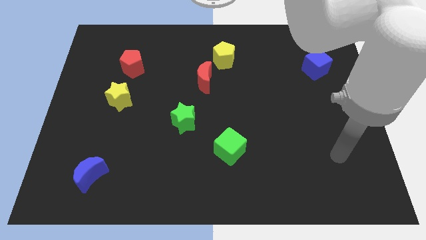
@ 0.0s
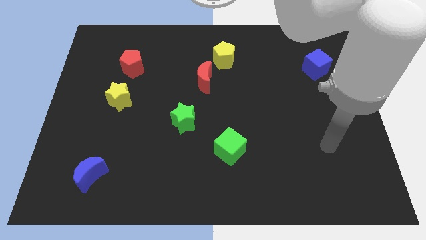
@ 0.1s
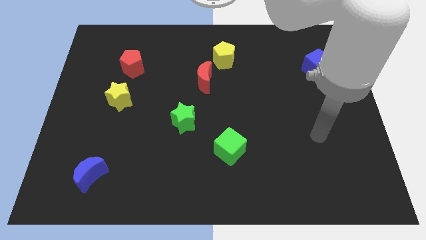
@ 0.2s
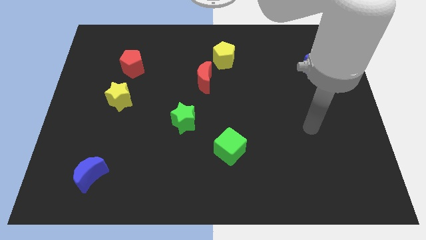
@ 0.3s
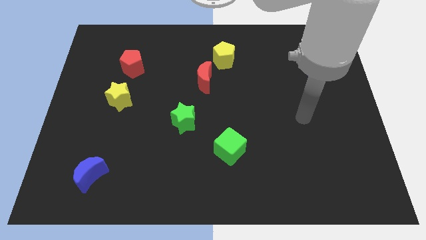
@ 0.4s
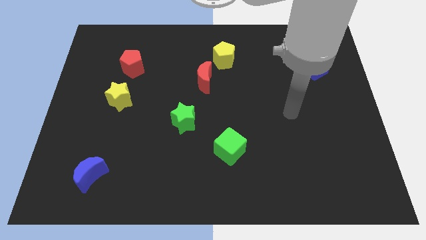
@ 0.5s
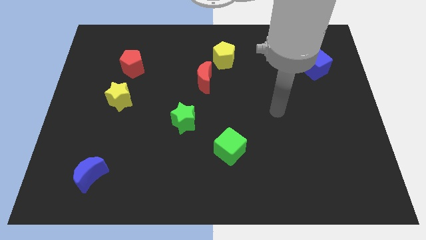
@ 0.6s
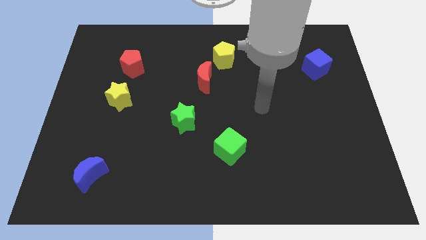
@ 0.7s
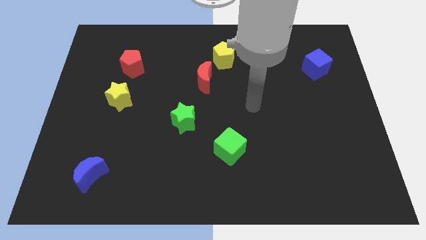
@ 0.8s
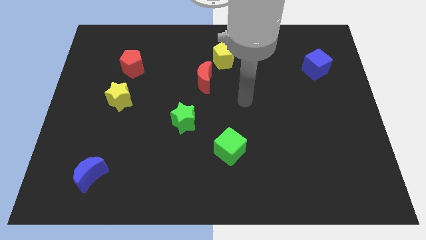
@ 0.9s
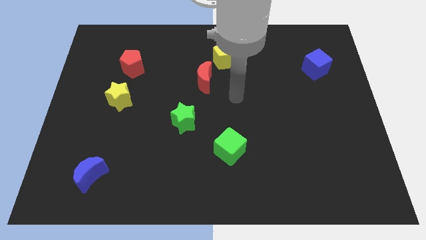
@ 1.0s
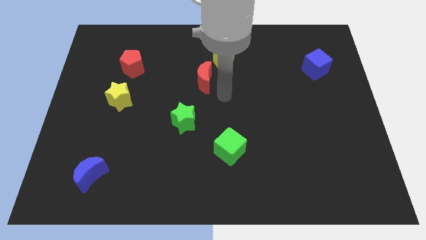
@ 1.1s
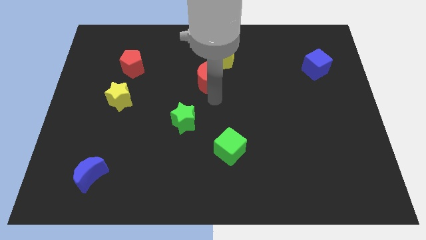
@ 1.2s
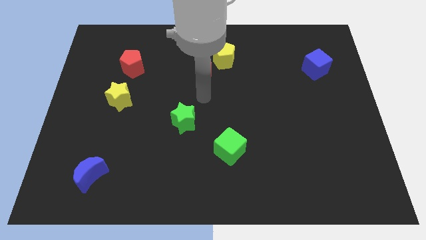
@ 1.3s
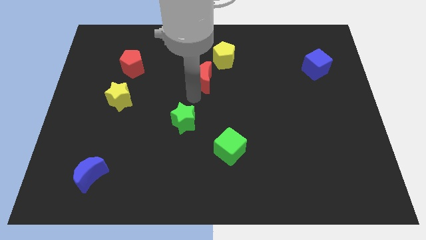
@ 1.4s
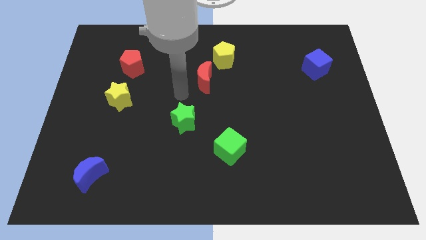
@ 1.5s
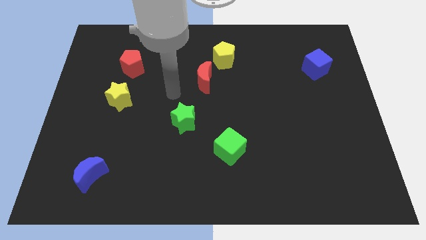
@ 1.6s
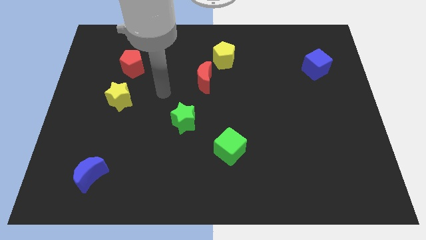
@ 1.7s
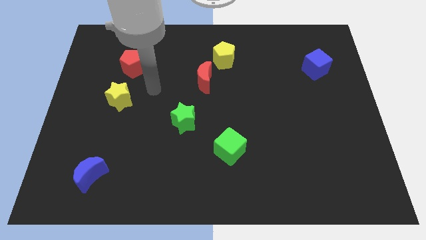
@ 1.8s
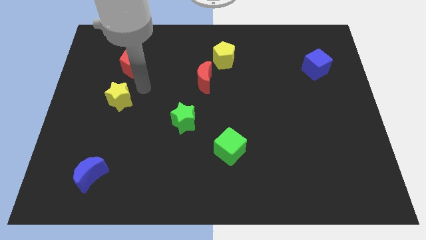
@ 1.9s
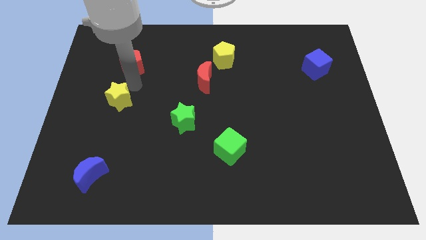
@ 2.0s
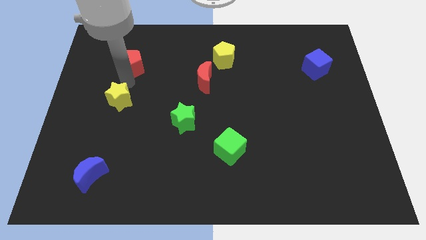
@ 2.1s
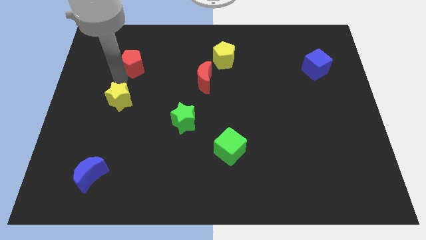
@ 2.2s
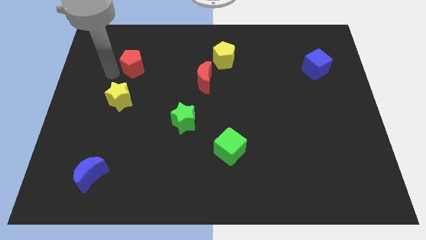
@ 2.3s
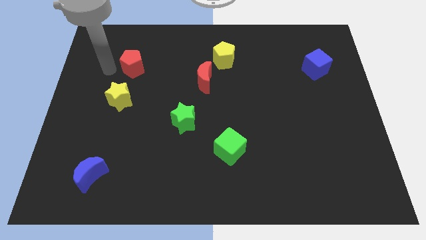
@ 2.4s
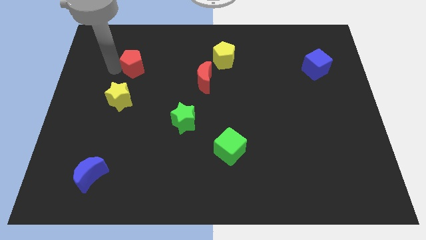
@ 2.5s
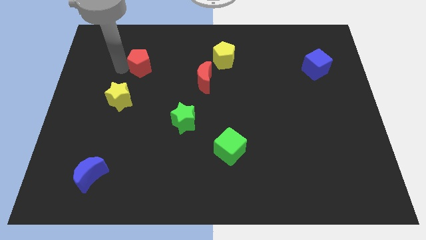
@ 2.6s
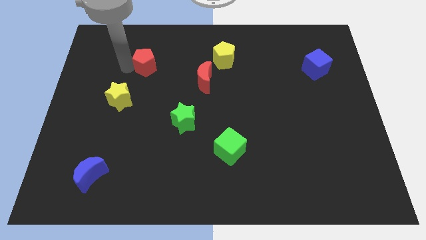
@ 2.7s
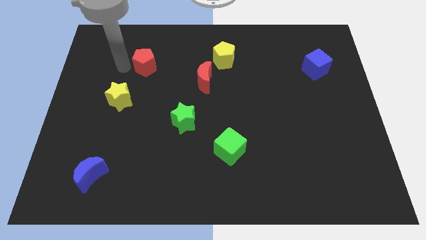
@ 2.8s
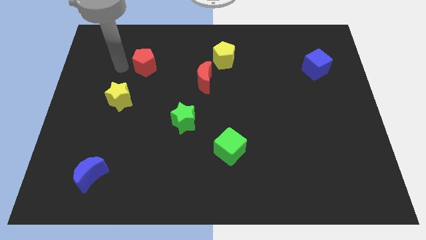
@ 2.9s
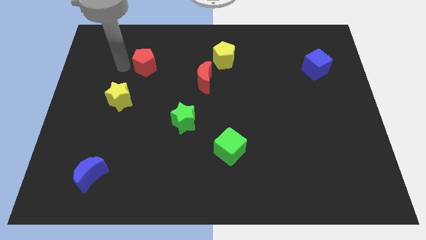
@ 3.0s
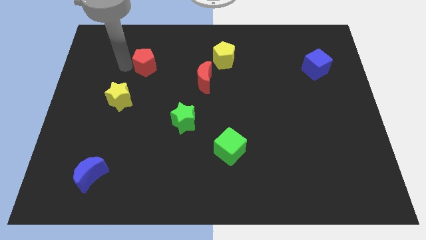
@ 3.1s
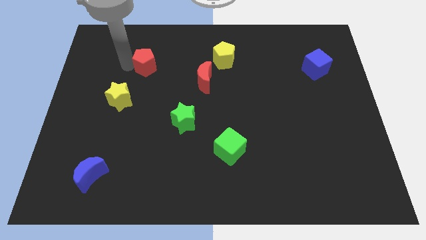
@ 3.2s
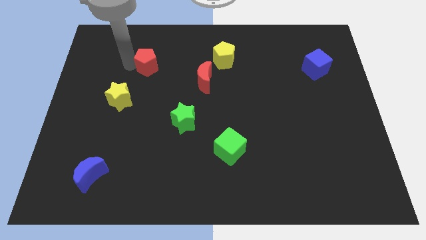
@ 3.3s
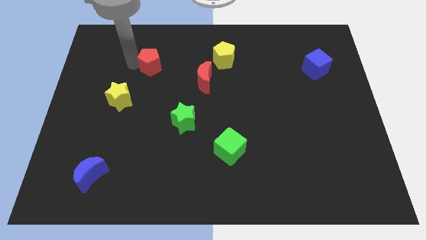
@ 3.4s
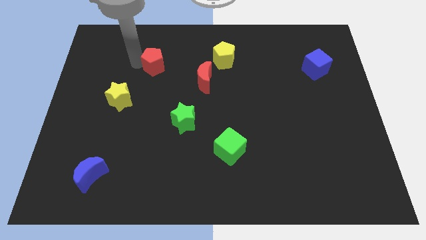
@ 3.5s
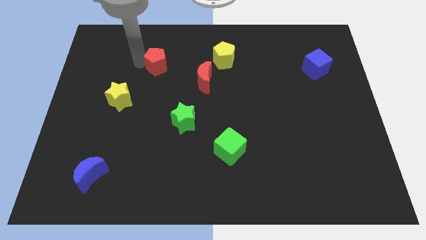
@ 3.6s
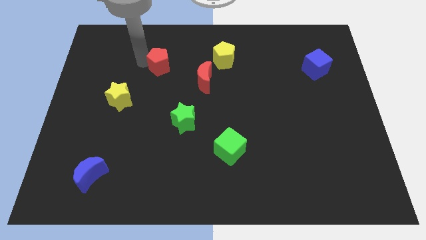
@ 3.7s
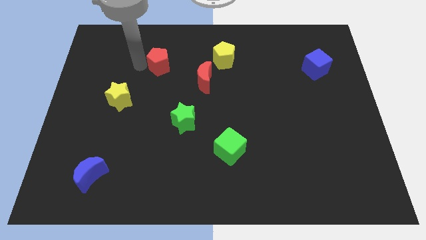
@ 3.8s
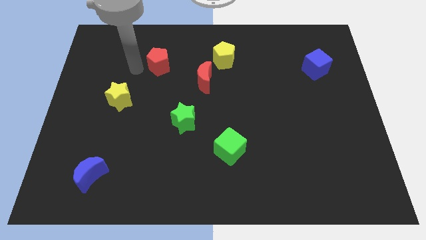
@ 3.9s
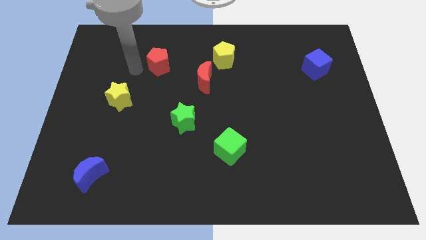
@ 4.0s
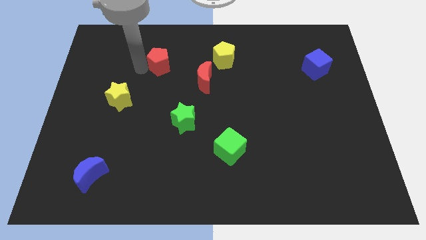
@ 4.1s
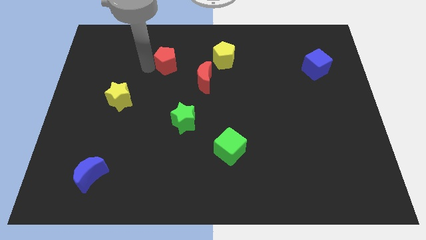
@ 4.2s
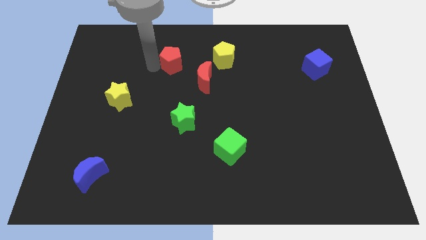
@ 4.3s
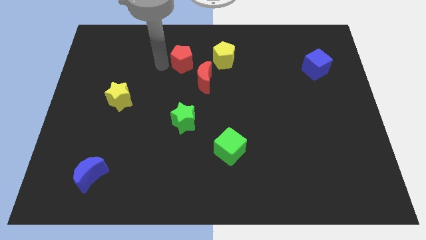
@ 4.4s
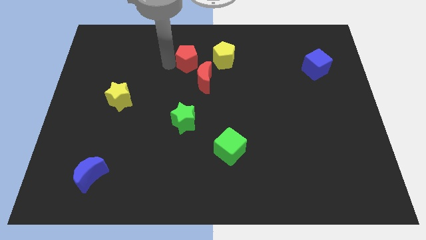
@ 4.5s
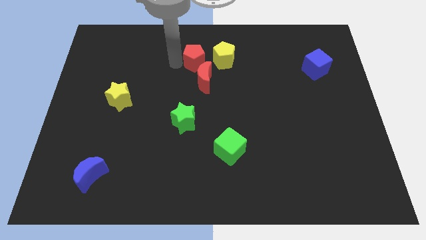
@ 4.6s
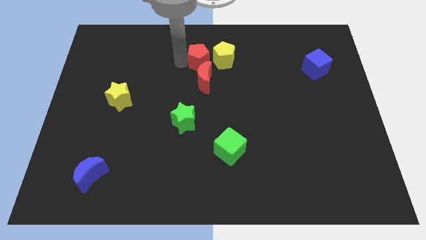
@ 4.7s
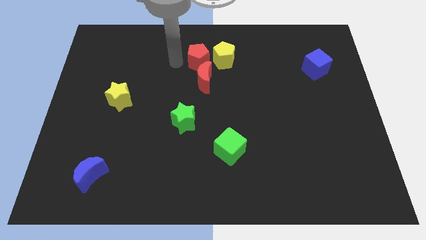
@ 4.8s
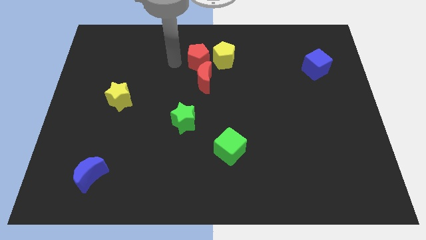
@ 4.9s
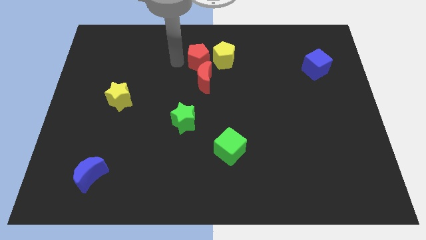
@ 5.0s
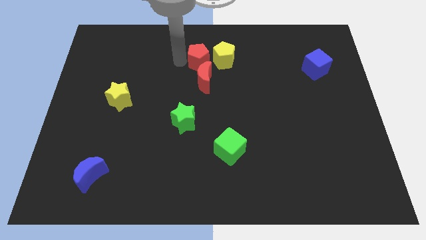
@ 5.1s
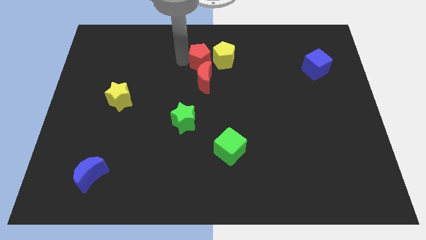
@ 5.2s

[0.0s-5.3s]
slide the red pentagon to the yellow pentagon

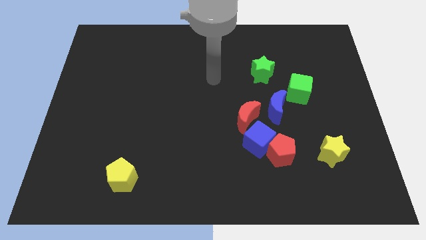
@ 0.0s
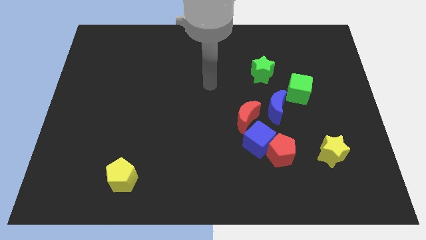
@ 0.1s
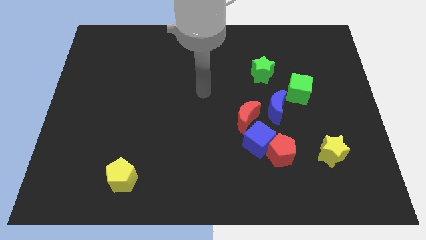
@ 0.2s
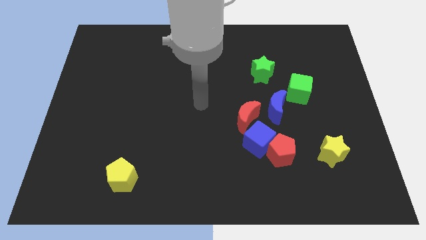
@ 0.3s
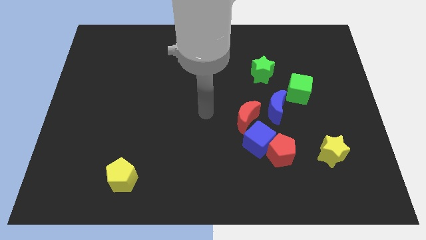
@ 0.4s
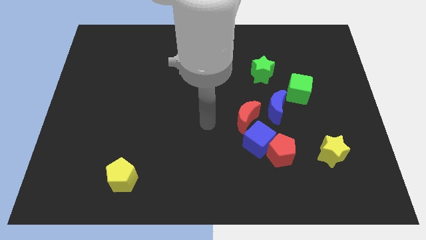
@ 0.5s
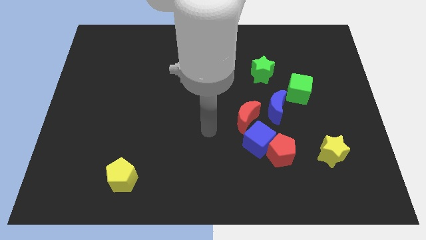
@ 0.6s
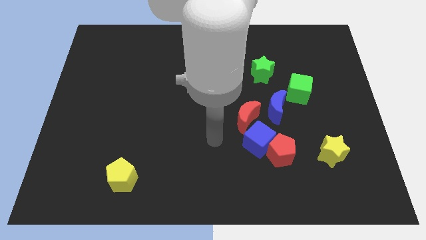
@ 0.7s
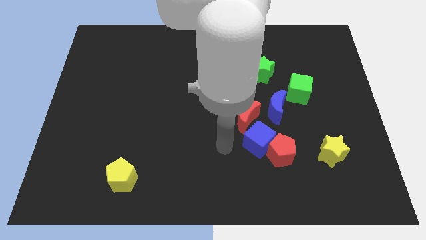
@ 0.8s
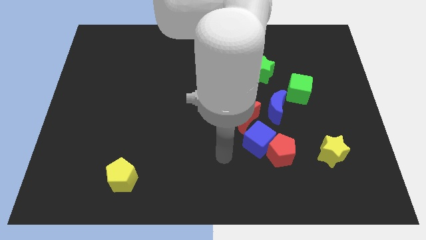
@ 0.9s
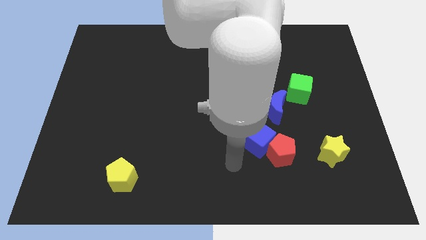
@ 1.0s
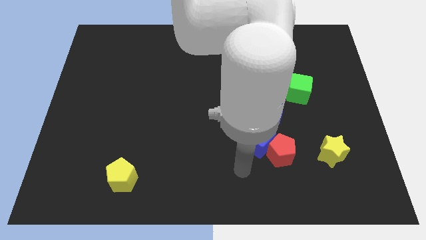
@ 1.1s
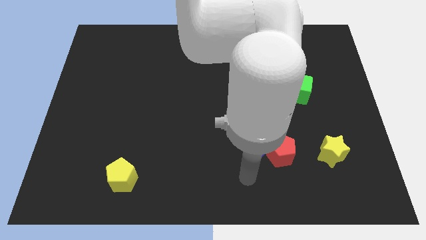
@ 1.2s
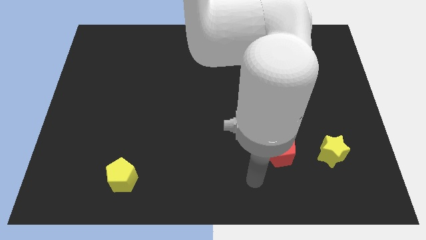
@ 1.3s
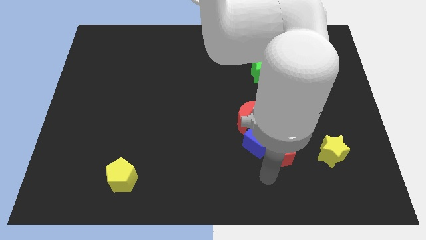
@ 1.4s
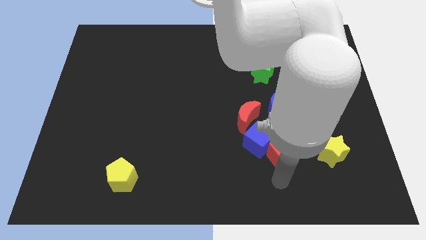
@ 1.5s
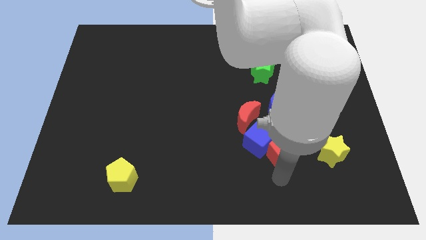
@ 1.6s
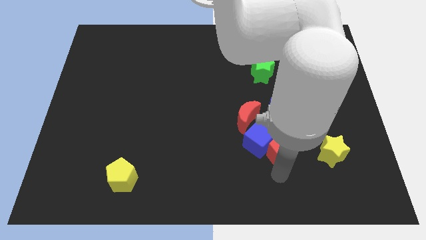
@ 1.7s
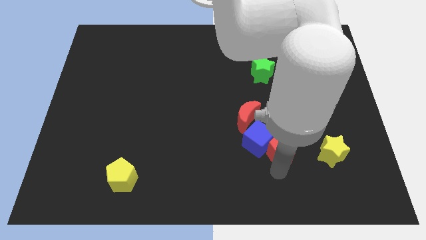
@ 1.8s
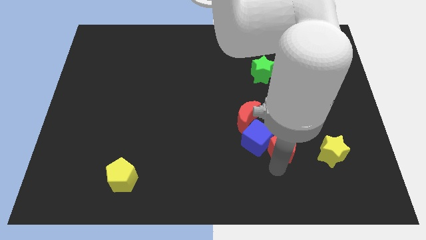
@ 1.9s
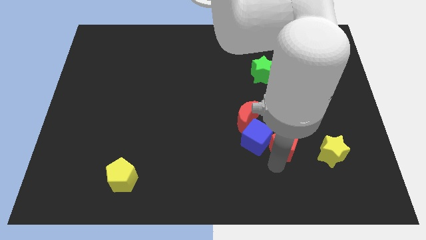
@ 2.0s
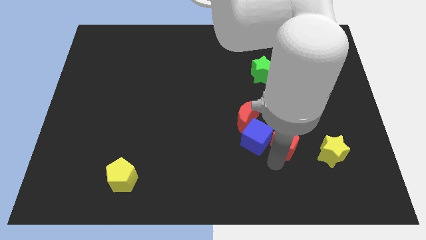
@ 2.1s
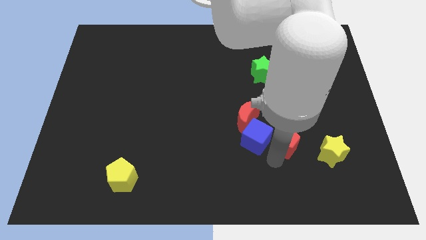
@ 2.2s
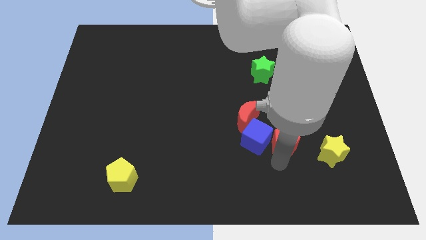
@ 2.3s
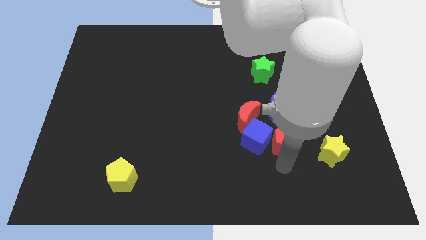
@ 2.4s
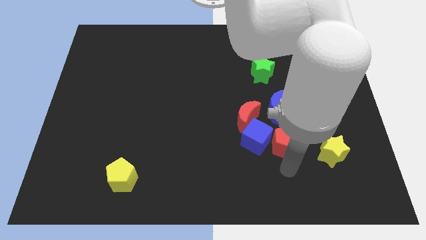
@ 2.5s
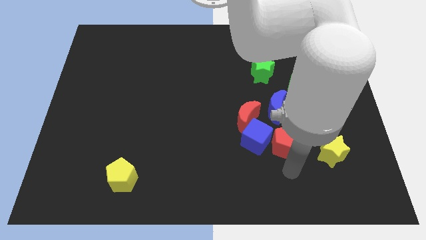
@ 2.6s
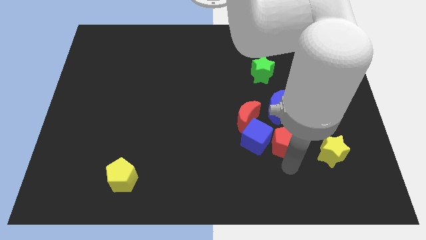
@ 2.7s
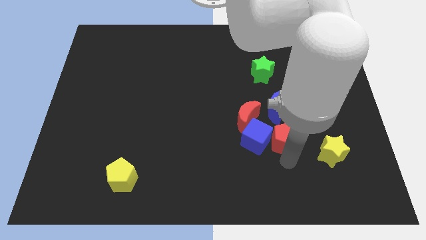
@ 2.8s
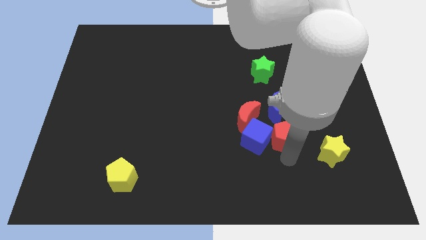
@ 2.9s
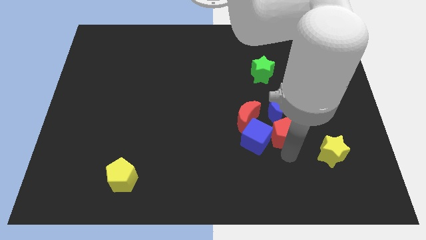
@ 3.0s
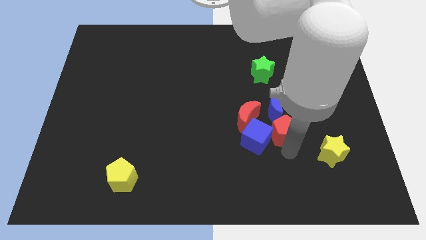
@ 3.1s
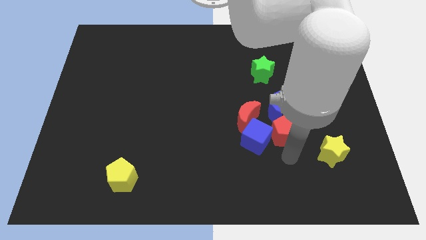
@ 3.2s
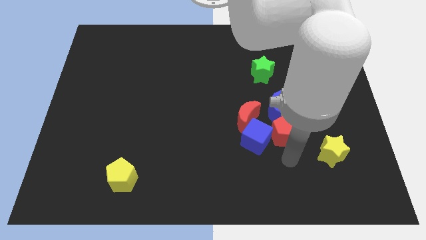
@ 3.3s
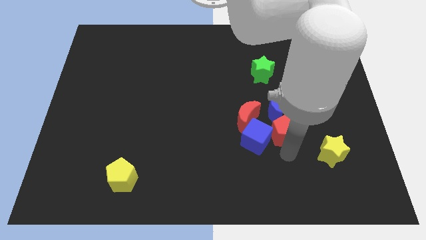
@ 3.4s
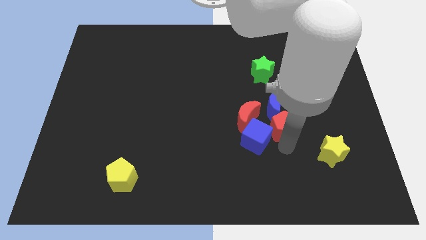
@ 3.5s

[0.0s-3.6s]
slide the red pentagon close to the blue moon
